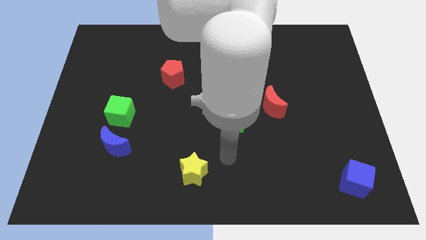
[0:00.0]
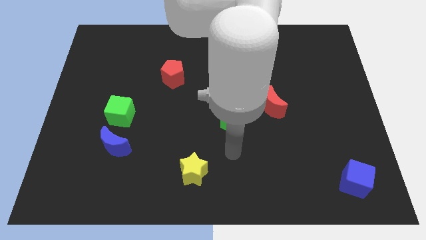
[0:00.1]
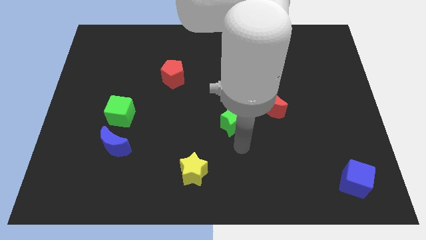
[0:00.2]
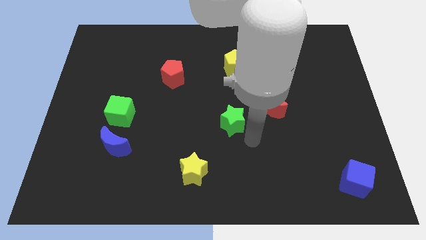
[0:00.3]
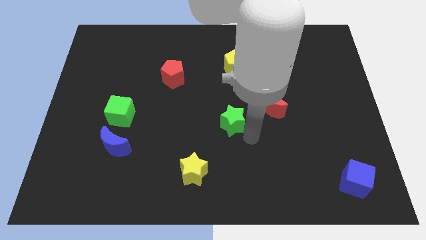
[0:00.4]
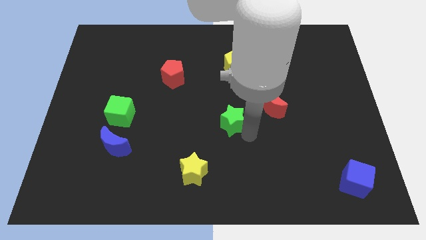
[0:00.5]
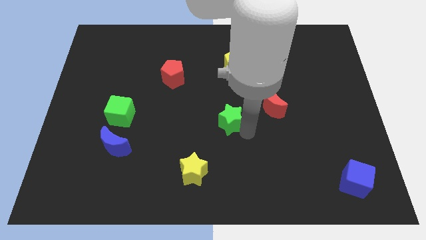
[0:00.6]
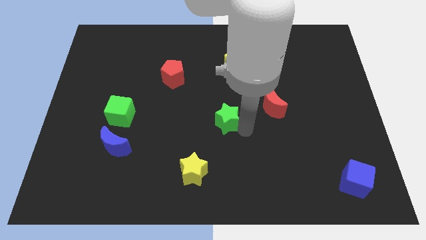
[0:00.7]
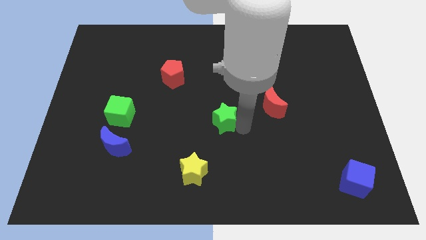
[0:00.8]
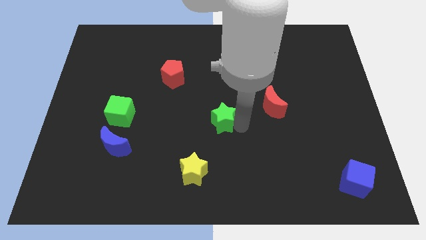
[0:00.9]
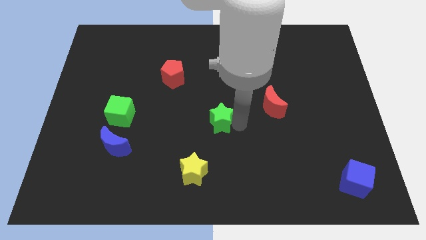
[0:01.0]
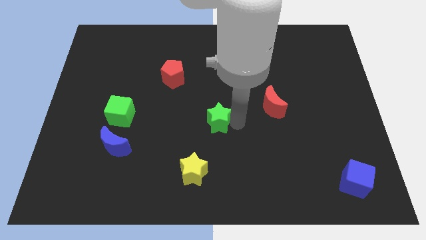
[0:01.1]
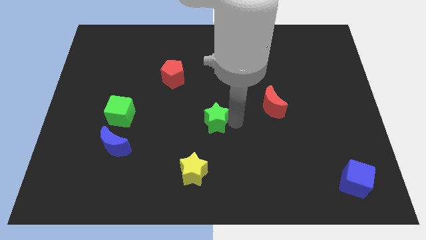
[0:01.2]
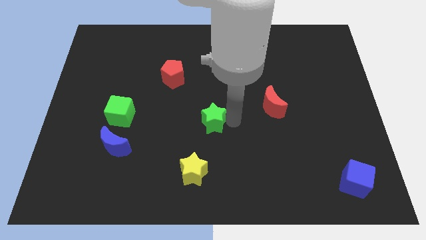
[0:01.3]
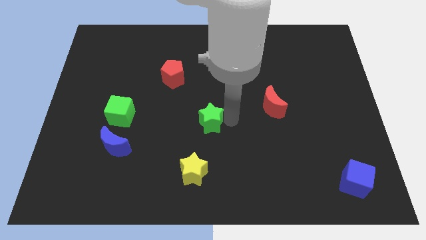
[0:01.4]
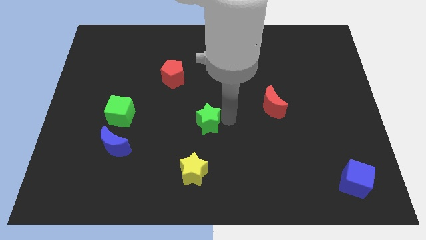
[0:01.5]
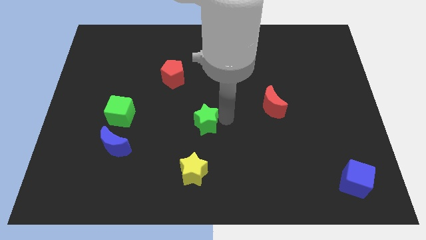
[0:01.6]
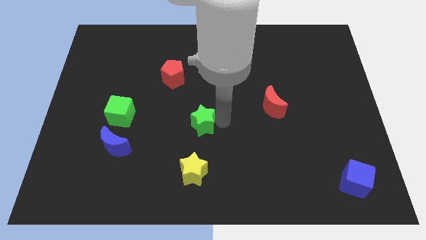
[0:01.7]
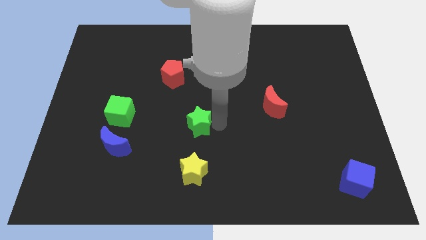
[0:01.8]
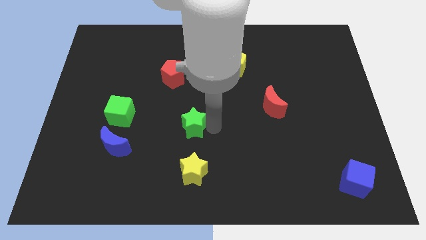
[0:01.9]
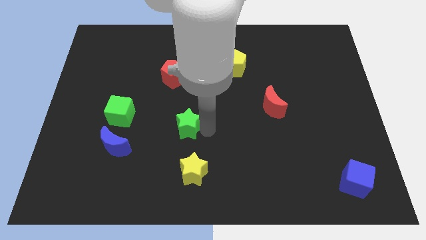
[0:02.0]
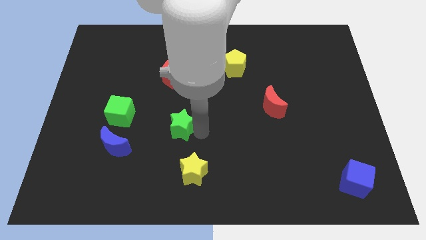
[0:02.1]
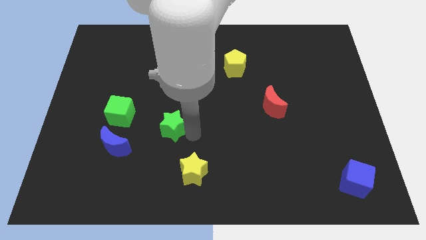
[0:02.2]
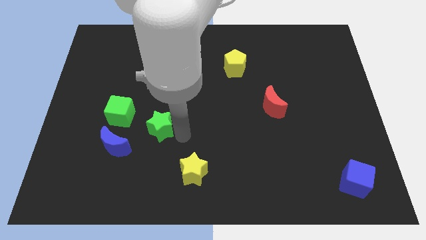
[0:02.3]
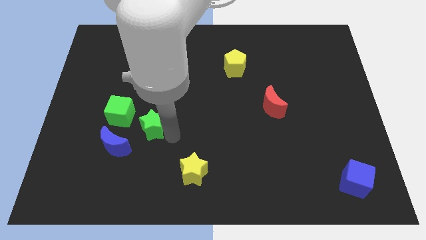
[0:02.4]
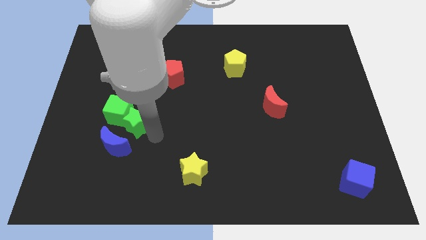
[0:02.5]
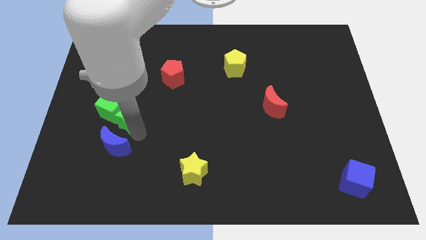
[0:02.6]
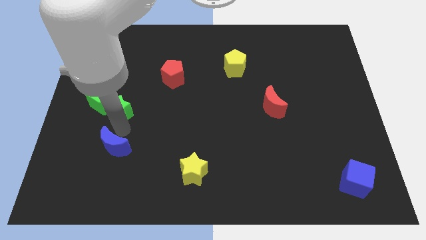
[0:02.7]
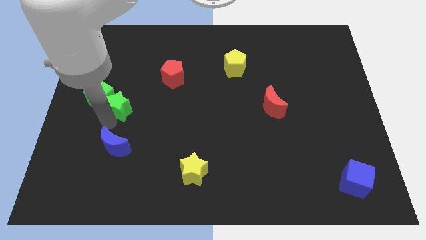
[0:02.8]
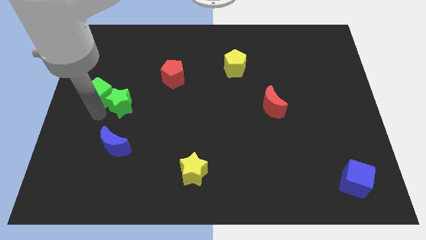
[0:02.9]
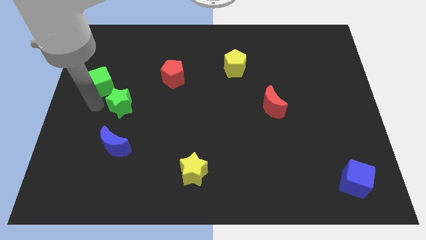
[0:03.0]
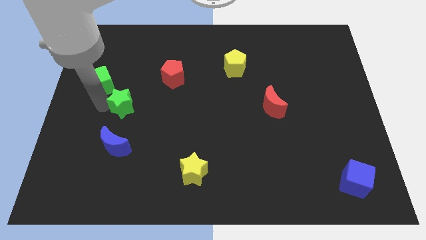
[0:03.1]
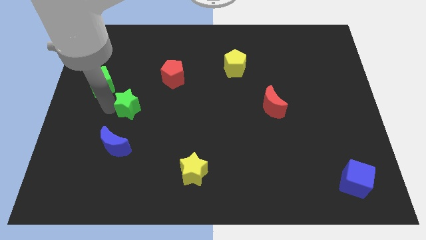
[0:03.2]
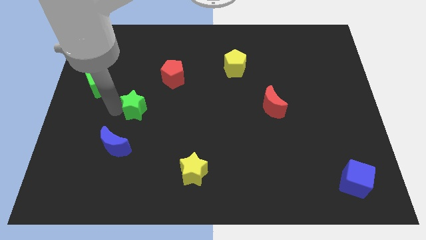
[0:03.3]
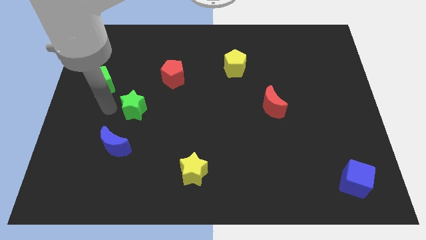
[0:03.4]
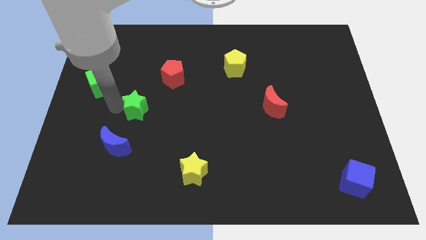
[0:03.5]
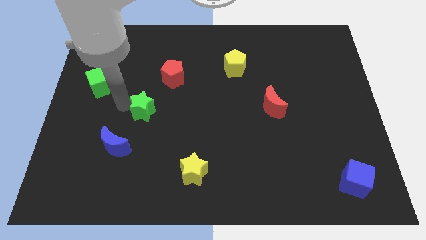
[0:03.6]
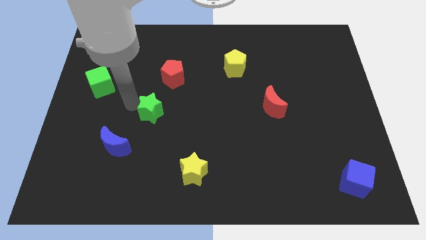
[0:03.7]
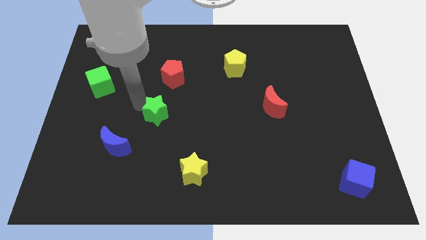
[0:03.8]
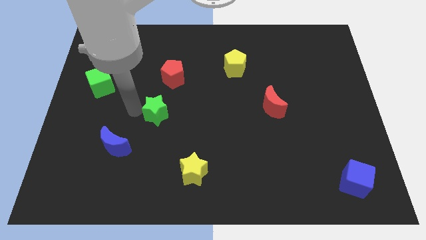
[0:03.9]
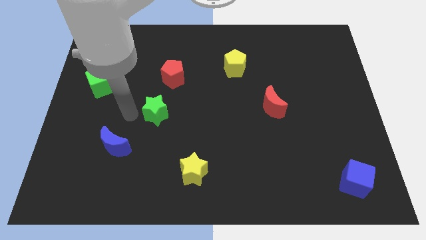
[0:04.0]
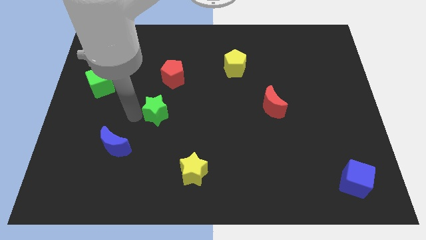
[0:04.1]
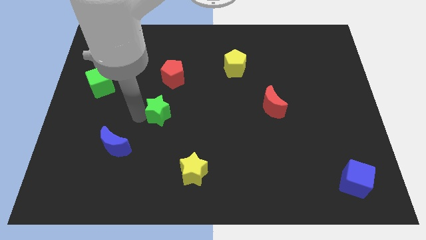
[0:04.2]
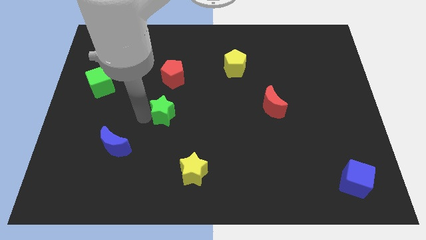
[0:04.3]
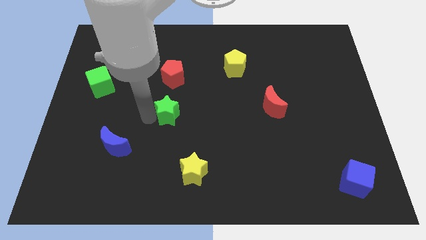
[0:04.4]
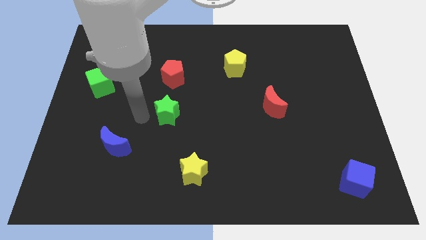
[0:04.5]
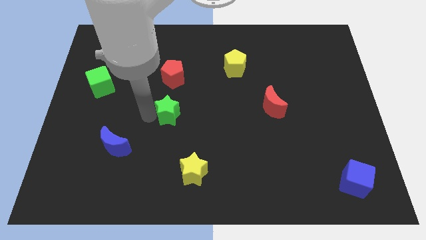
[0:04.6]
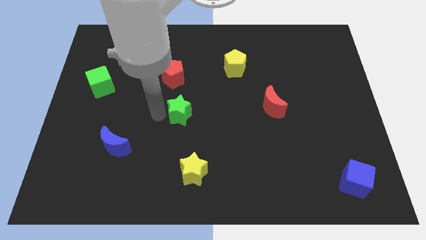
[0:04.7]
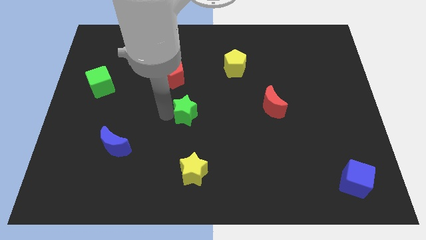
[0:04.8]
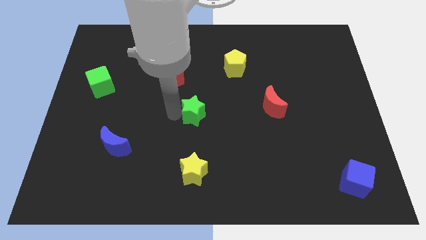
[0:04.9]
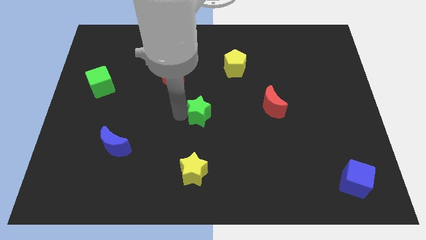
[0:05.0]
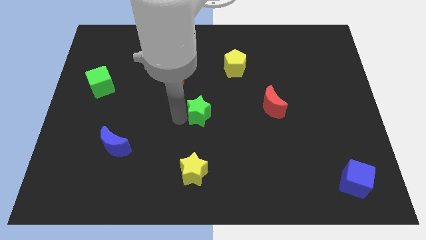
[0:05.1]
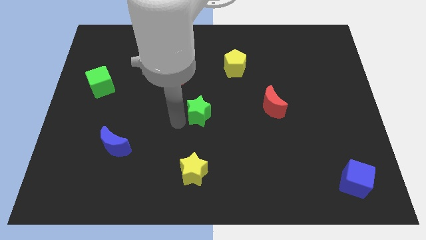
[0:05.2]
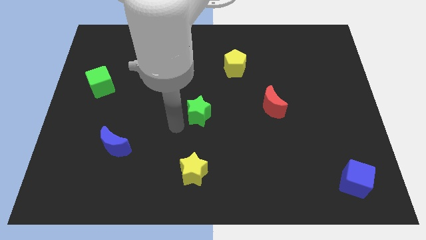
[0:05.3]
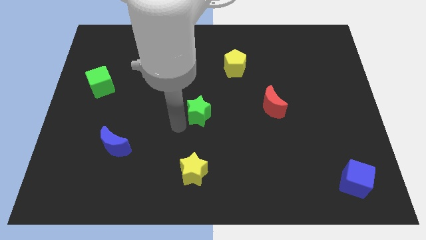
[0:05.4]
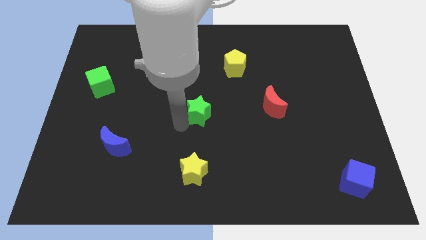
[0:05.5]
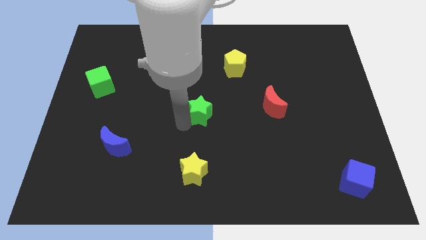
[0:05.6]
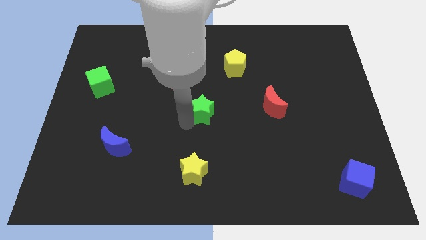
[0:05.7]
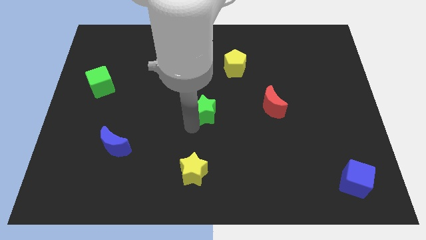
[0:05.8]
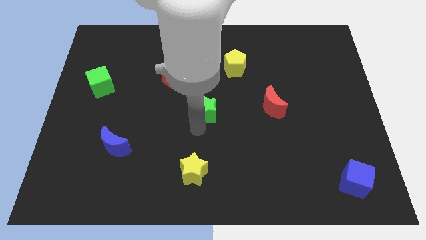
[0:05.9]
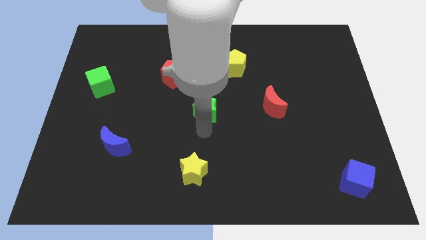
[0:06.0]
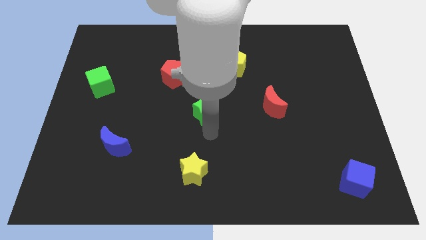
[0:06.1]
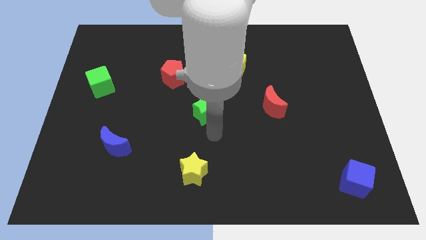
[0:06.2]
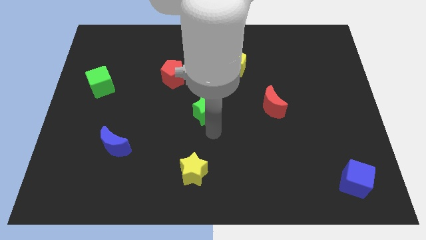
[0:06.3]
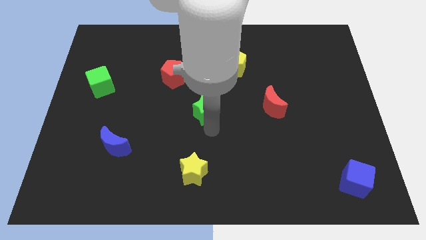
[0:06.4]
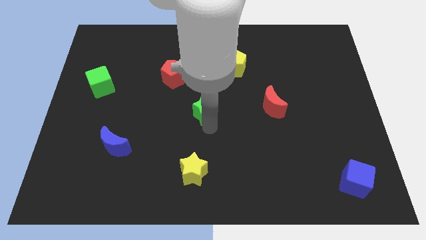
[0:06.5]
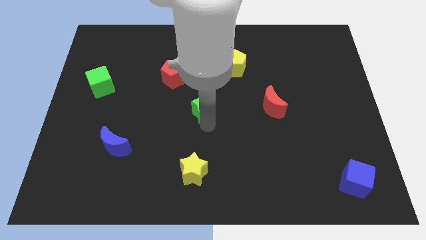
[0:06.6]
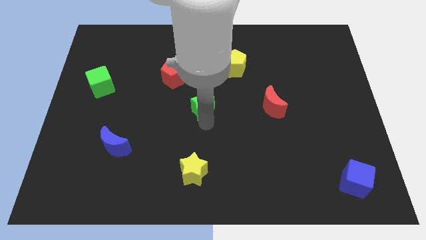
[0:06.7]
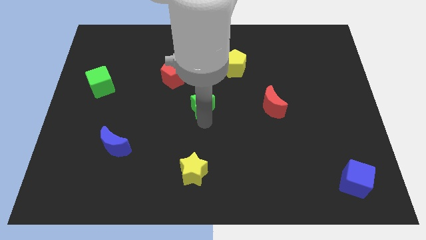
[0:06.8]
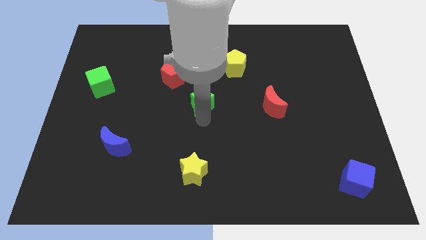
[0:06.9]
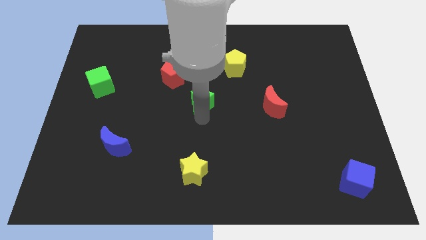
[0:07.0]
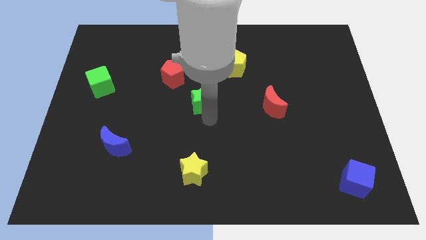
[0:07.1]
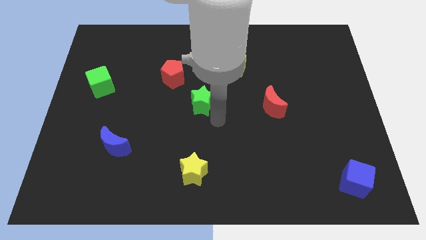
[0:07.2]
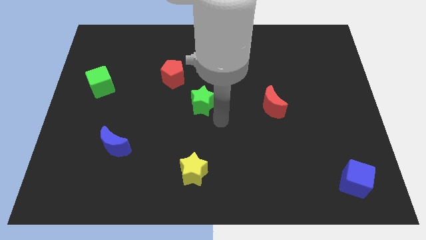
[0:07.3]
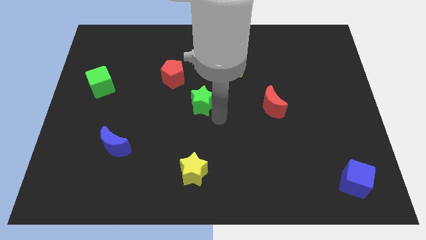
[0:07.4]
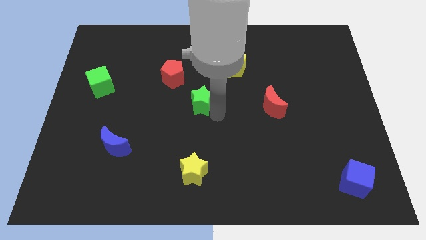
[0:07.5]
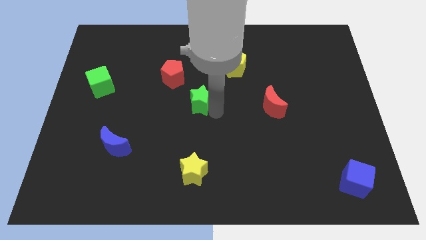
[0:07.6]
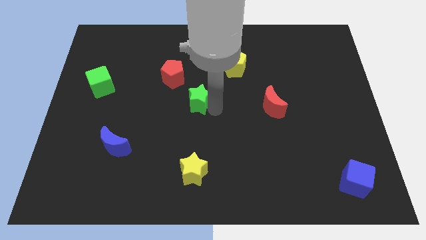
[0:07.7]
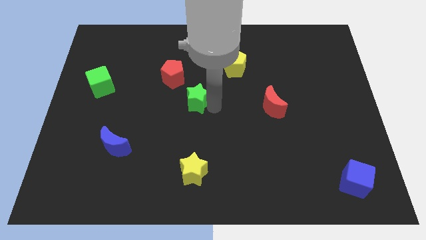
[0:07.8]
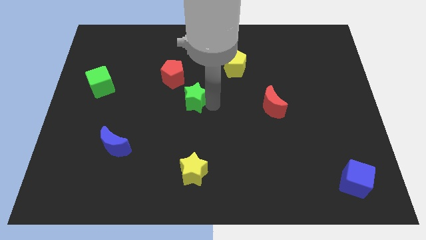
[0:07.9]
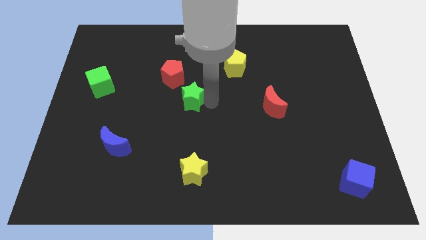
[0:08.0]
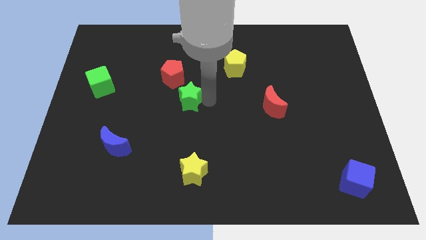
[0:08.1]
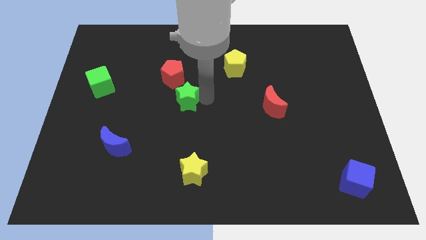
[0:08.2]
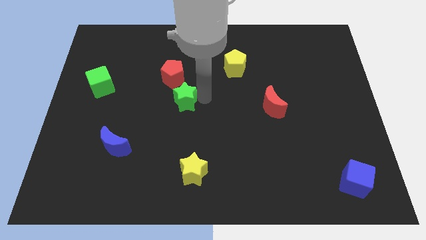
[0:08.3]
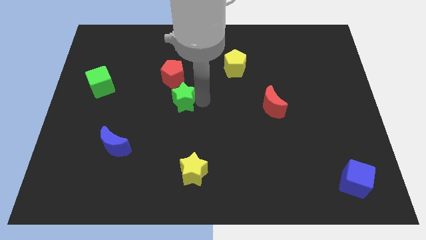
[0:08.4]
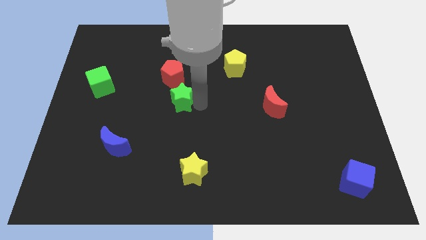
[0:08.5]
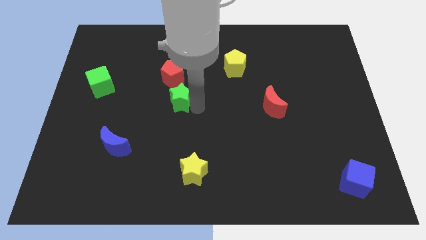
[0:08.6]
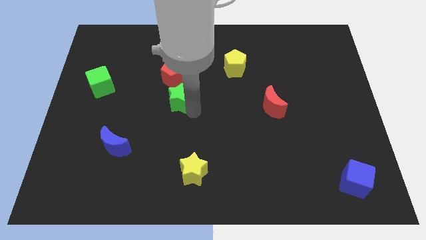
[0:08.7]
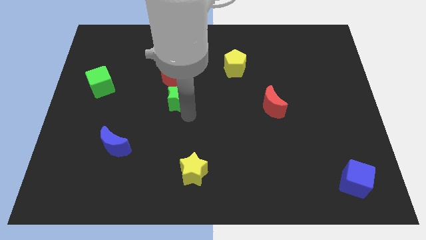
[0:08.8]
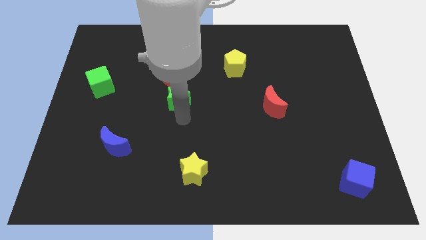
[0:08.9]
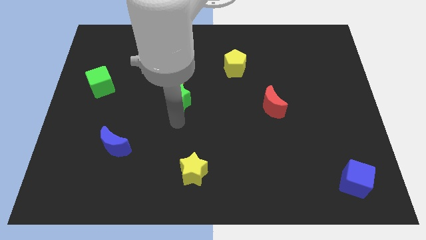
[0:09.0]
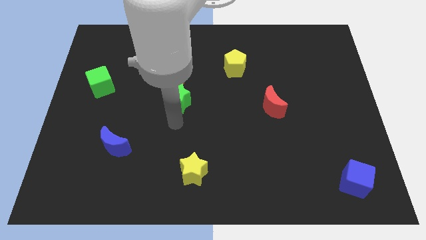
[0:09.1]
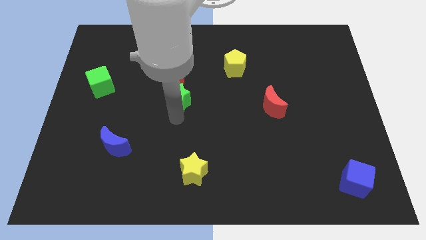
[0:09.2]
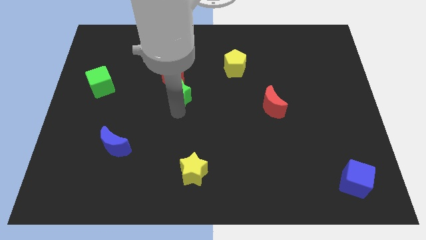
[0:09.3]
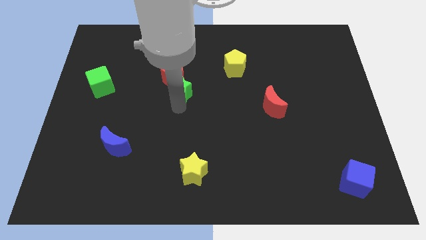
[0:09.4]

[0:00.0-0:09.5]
push the green star next to the red pentagon
